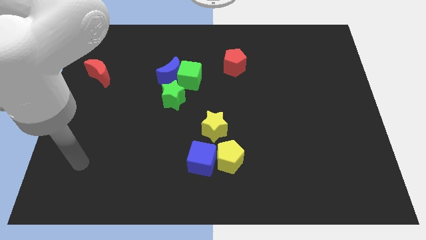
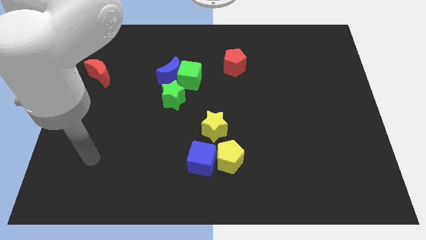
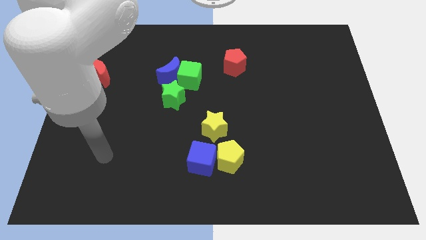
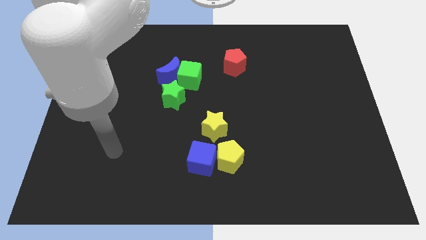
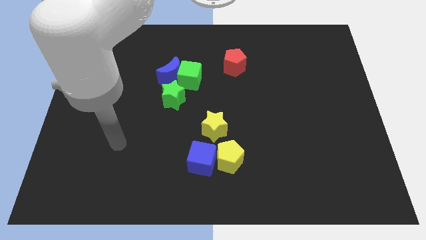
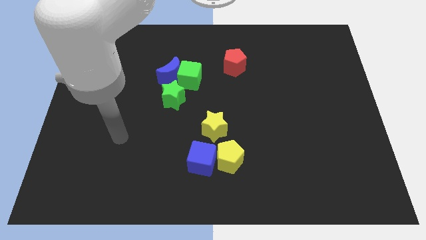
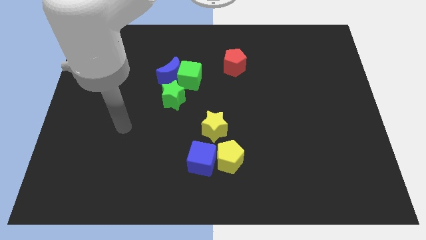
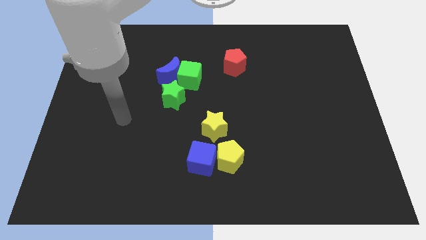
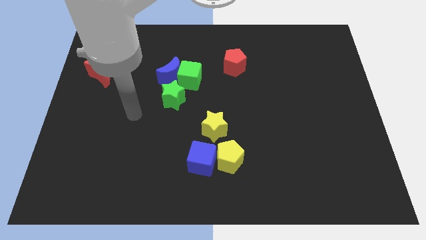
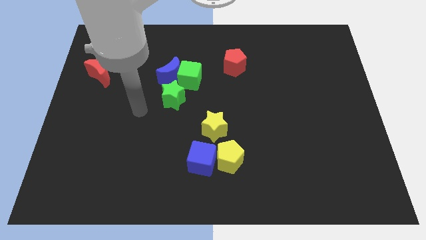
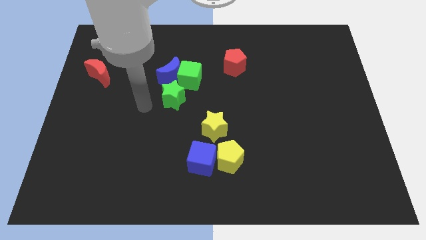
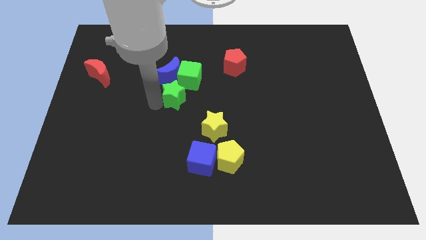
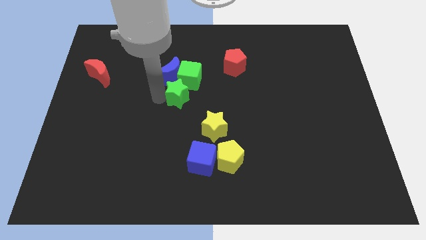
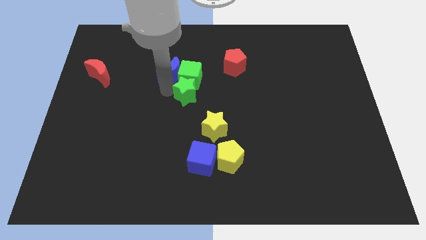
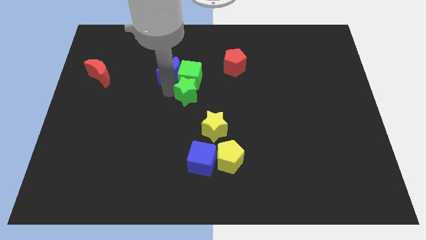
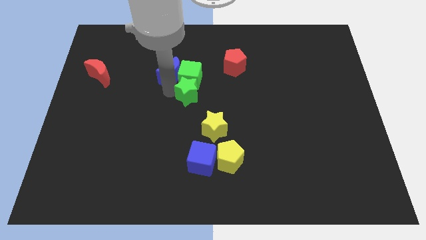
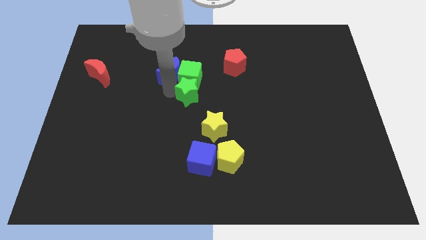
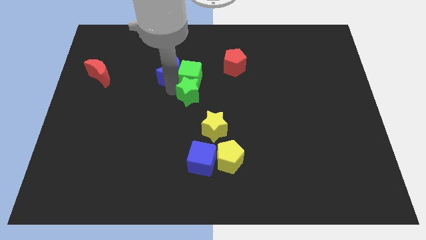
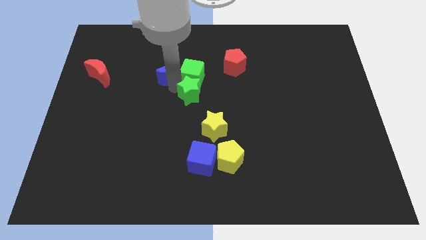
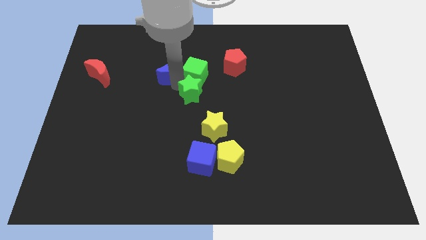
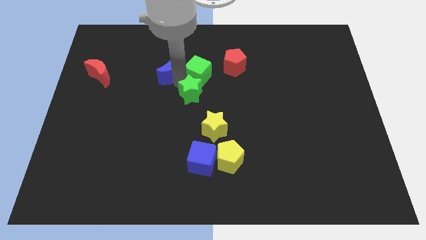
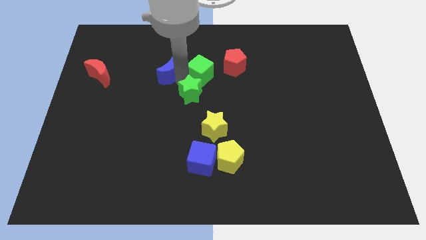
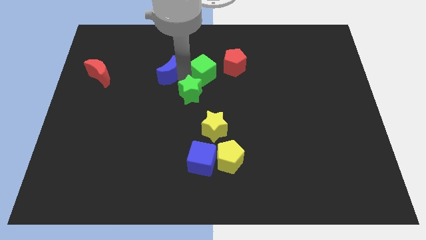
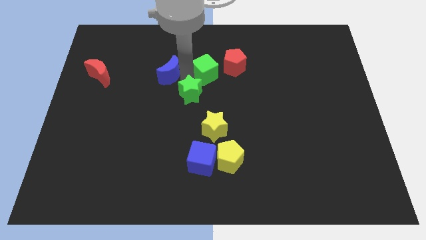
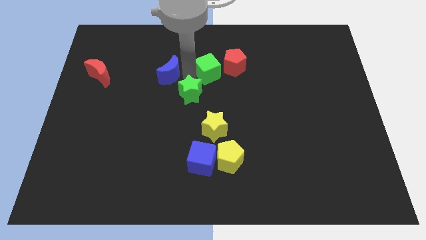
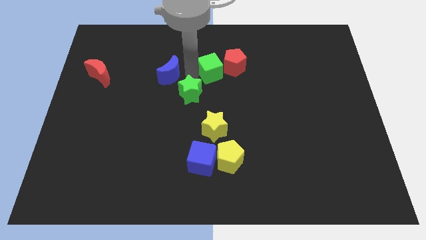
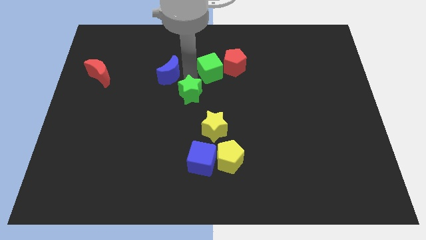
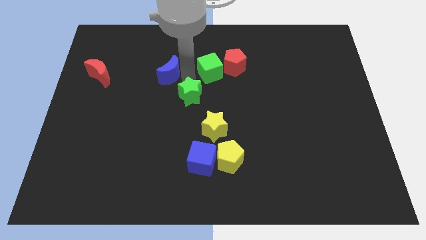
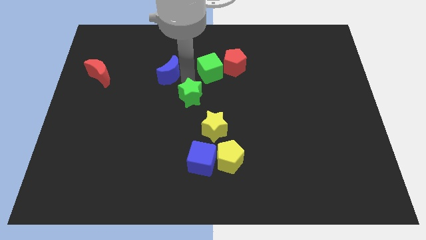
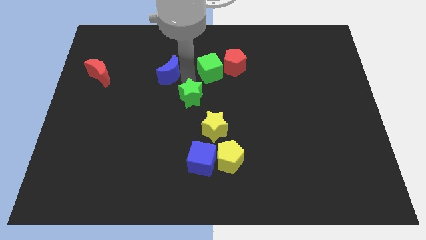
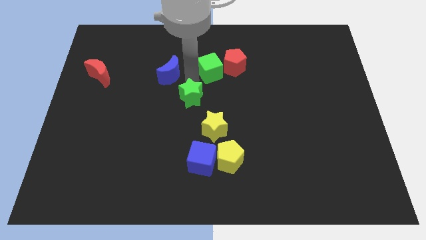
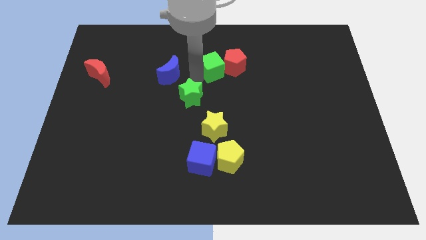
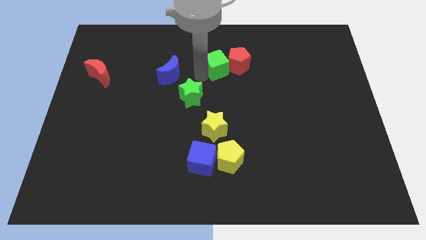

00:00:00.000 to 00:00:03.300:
pull the green cube apart from the blue moon and green star

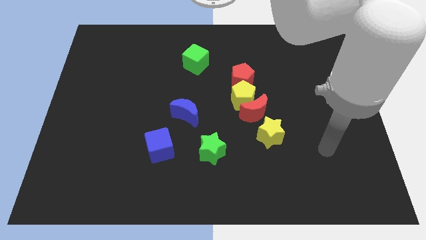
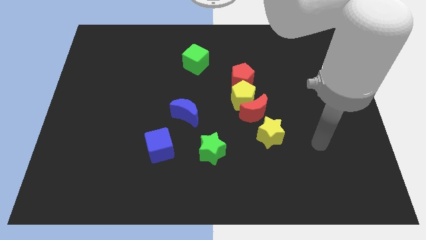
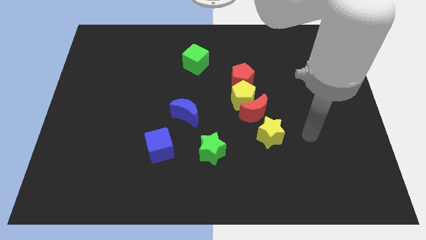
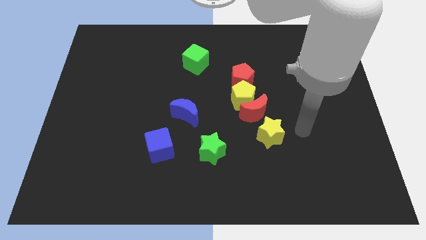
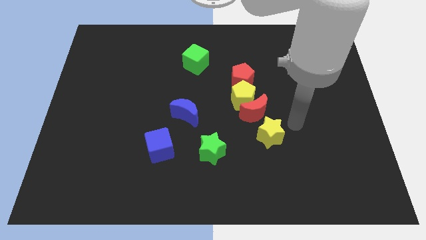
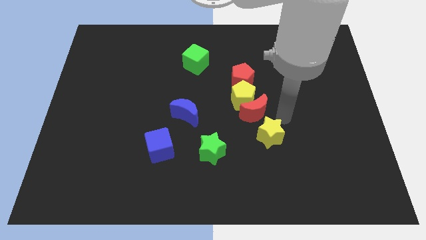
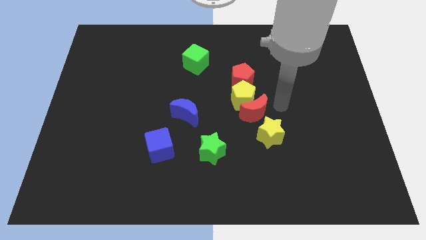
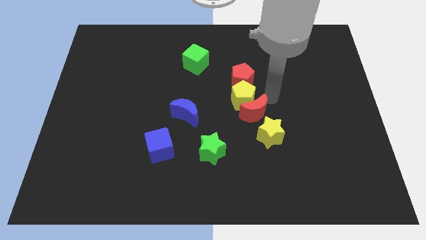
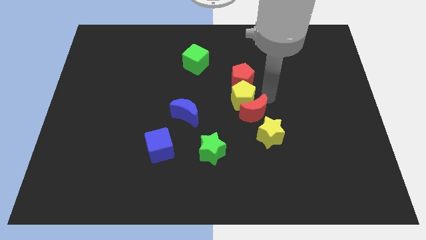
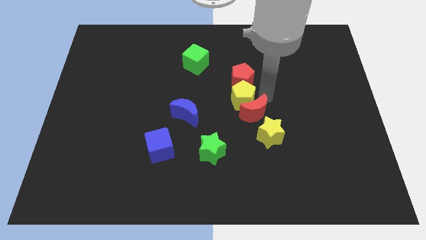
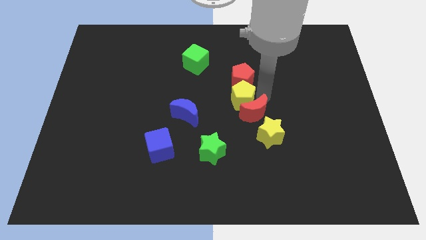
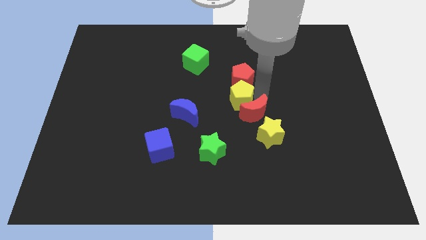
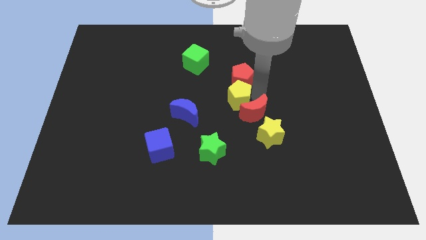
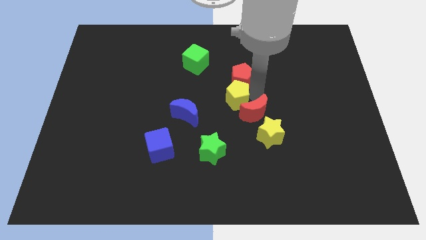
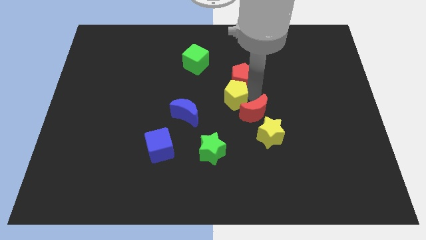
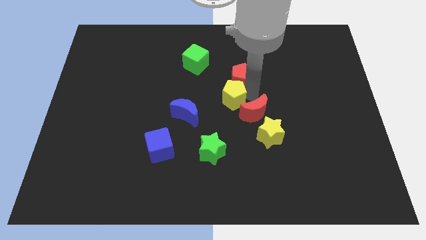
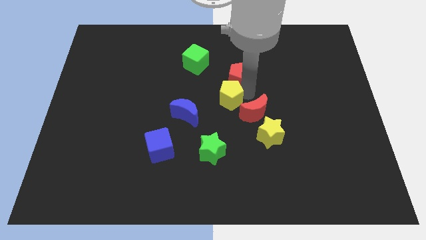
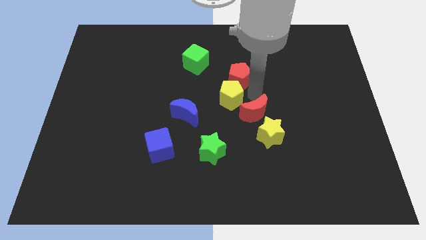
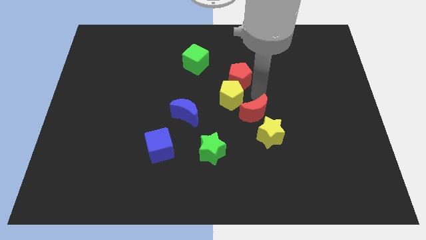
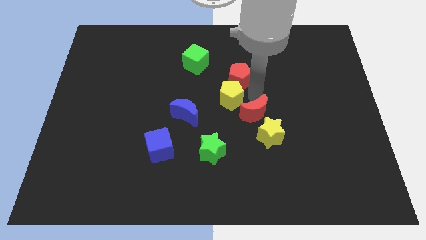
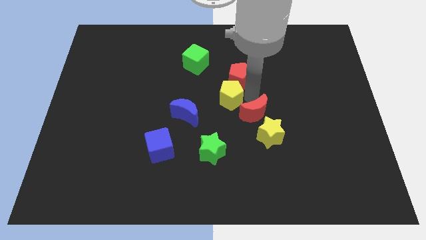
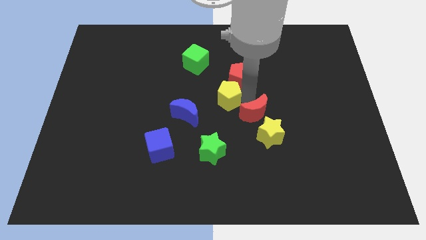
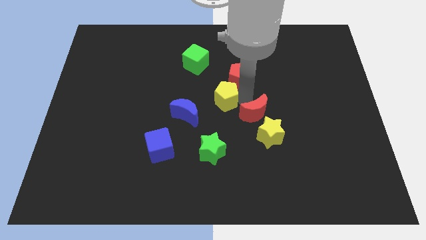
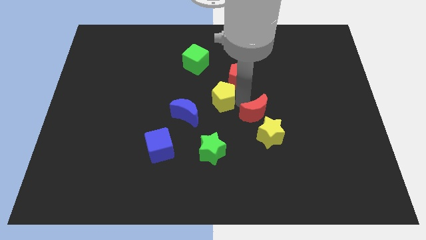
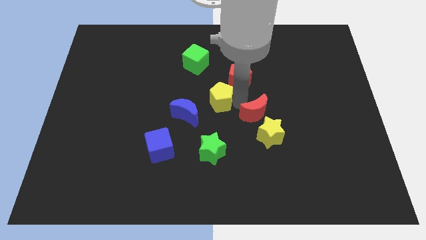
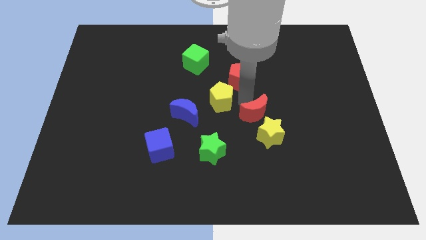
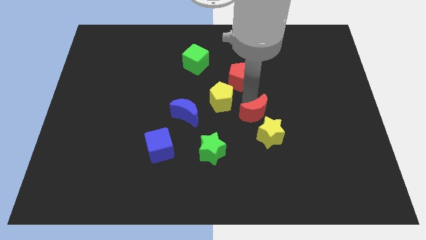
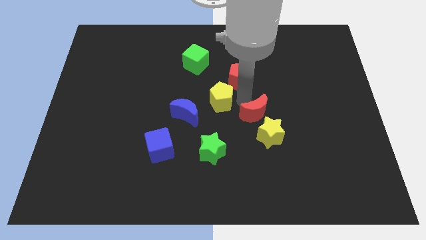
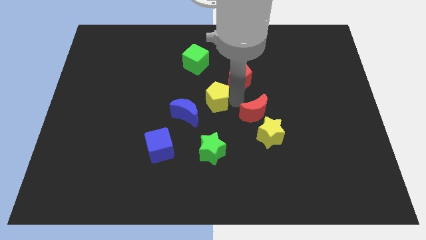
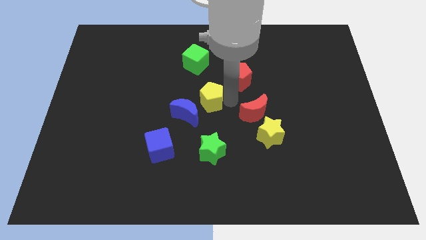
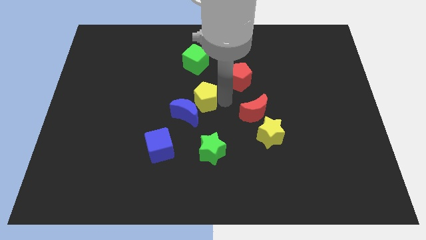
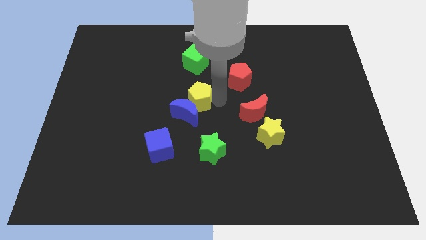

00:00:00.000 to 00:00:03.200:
move the yellow pentagon away from the red moon and red pentagon

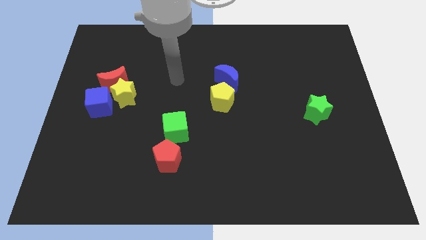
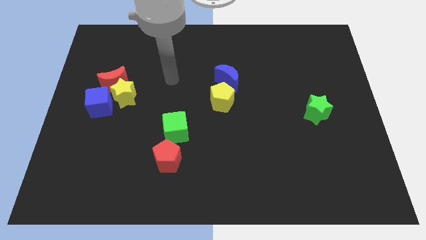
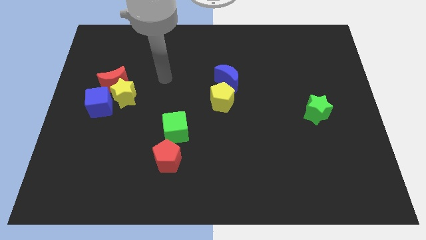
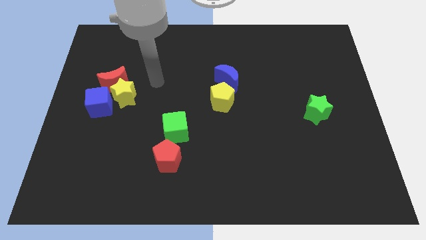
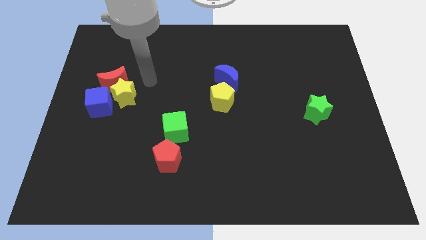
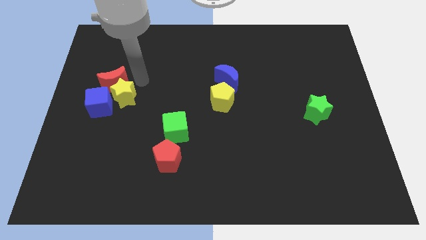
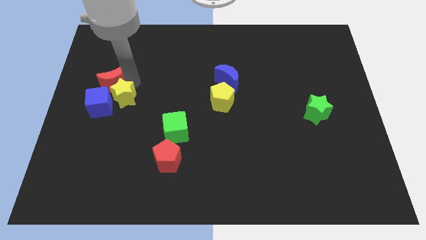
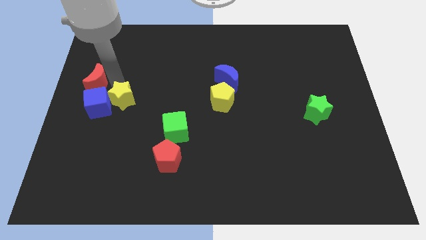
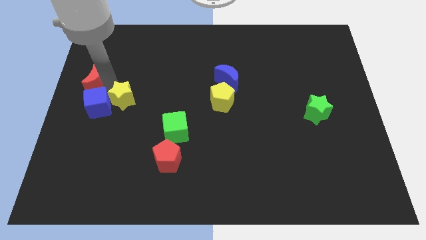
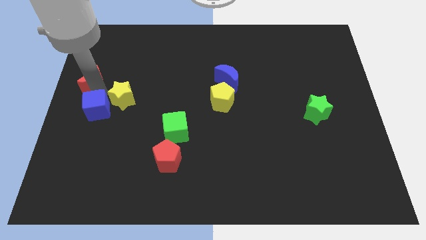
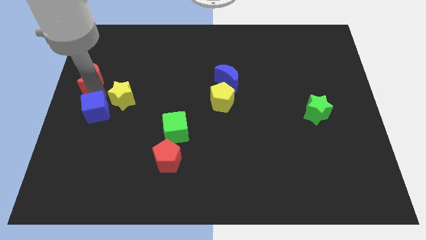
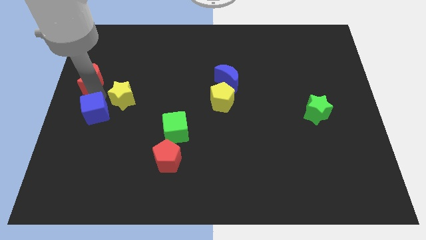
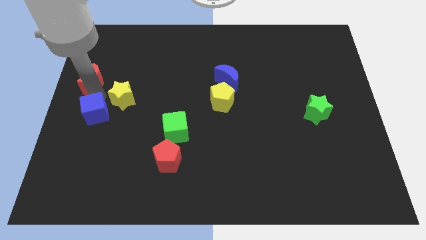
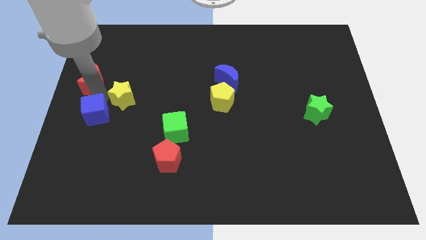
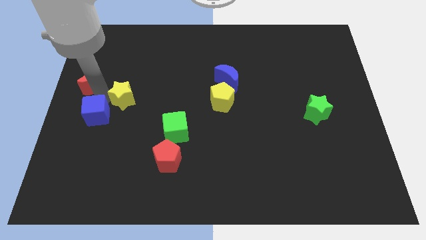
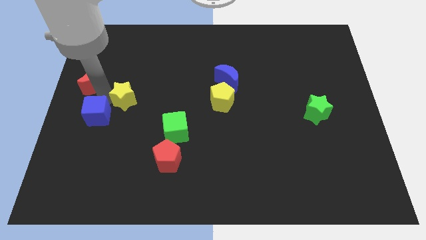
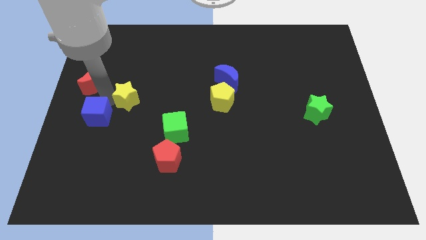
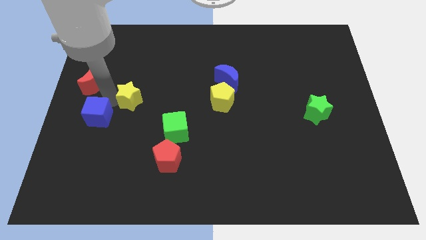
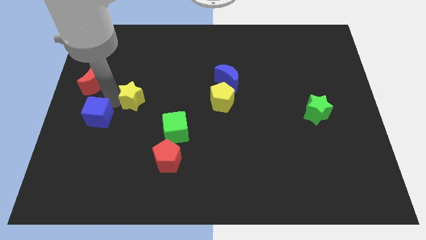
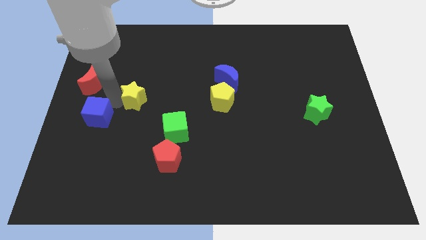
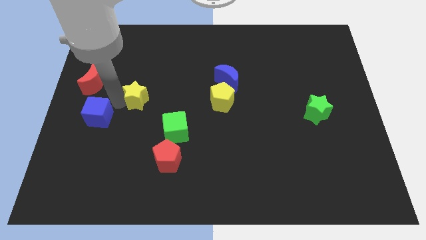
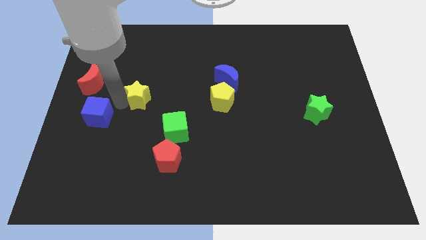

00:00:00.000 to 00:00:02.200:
move the yellow star away from the red moon and blue cube

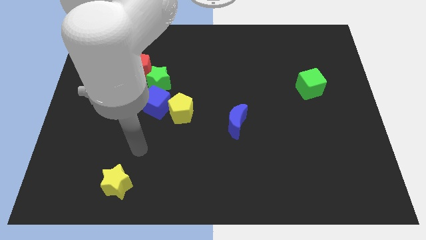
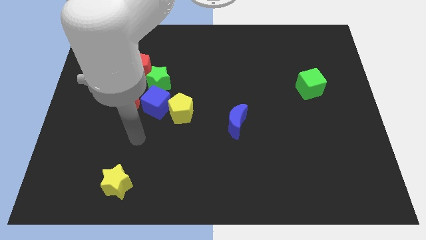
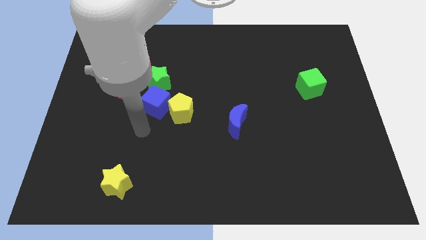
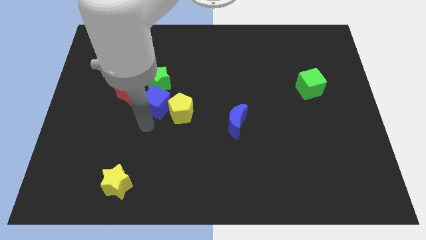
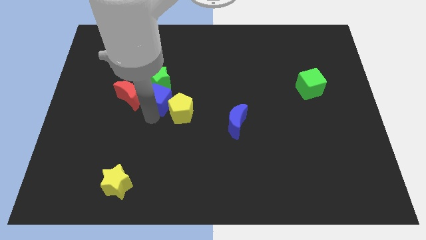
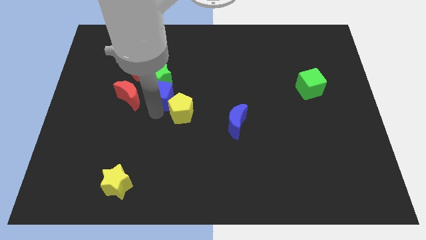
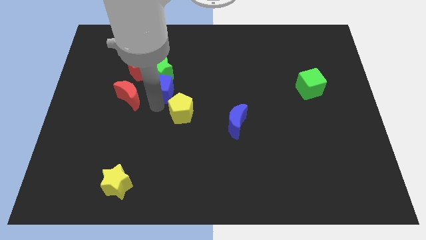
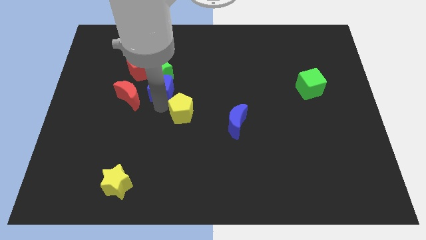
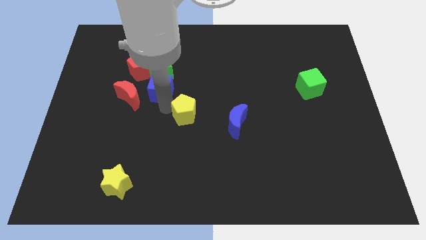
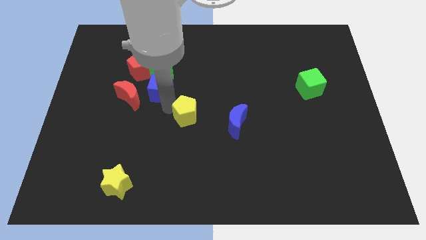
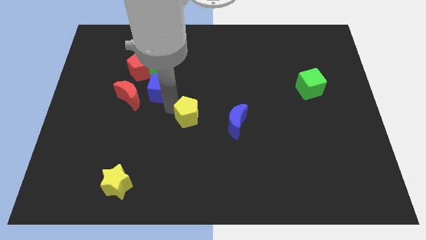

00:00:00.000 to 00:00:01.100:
move the yellow pentagon away from the blue cube
